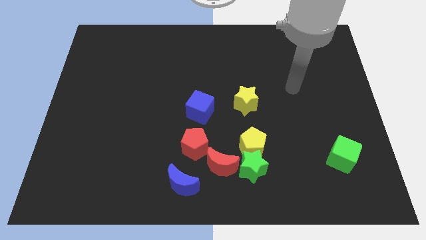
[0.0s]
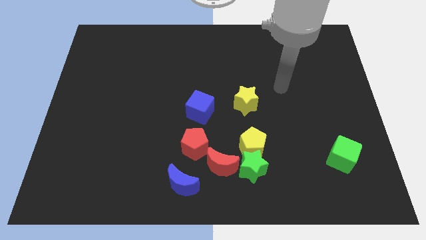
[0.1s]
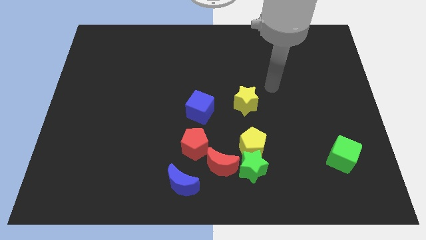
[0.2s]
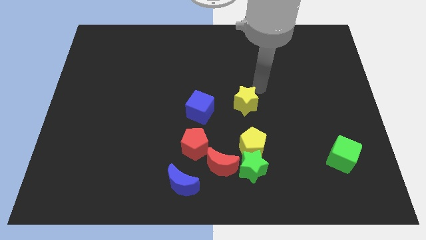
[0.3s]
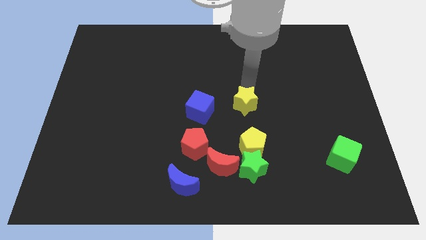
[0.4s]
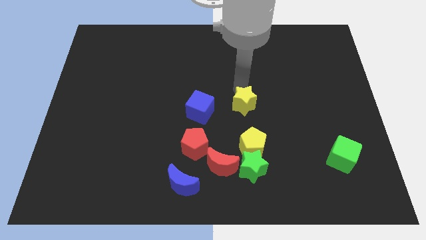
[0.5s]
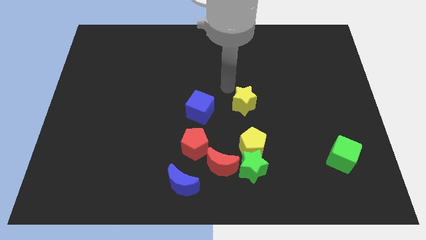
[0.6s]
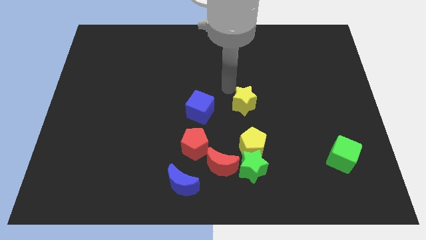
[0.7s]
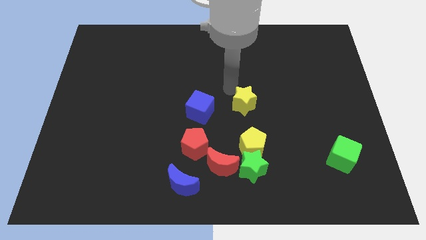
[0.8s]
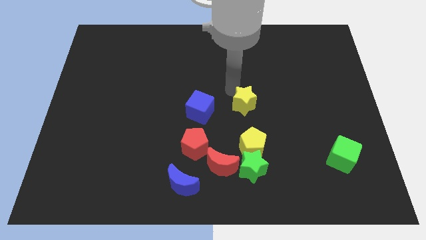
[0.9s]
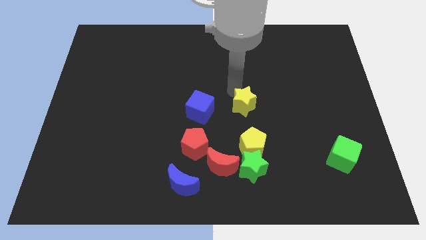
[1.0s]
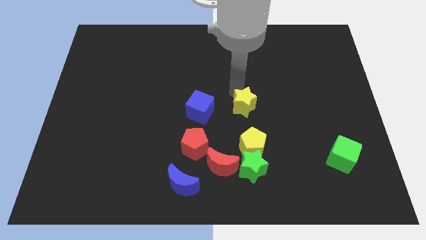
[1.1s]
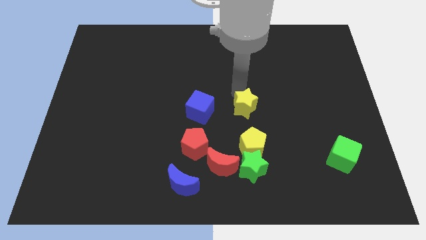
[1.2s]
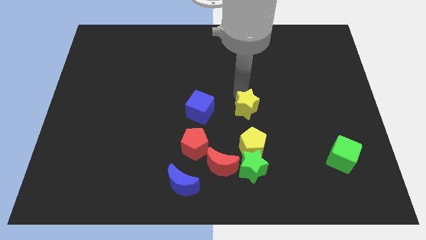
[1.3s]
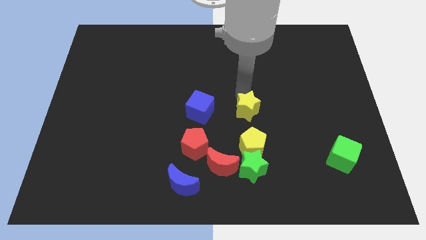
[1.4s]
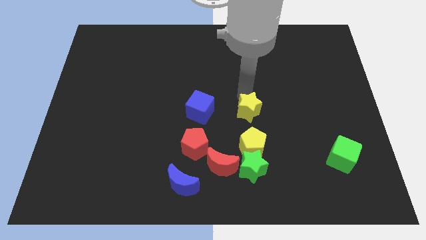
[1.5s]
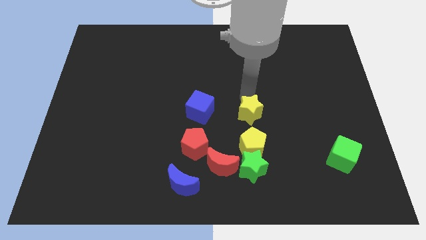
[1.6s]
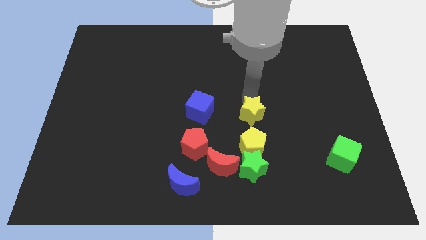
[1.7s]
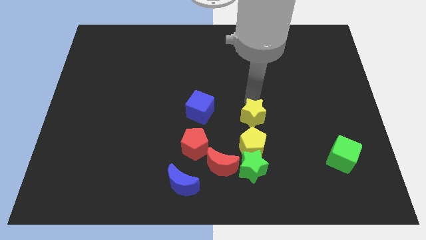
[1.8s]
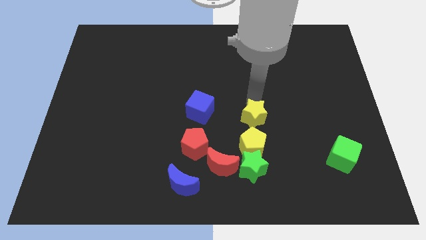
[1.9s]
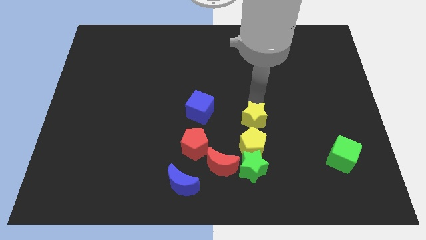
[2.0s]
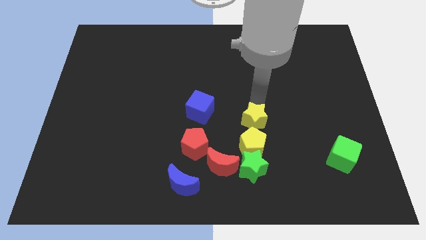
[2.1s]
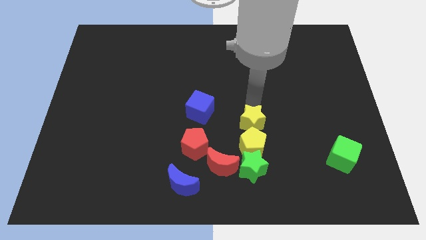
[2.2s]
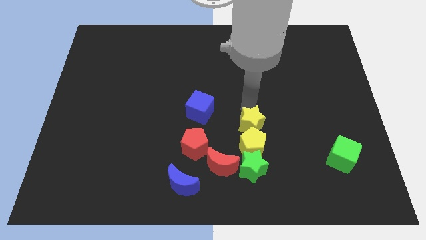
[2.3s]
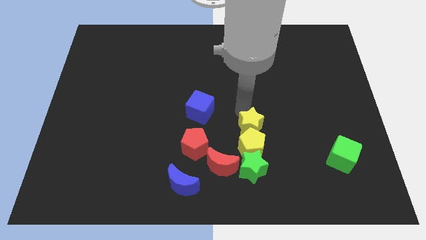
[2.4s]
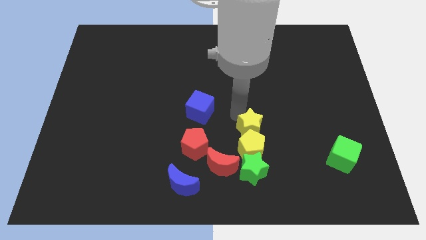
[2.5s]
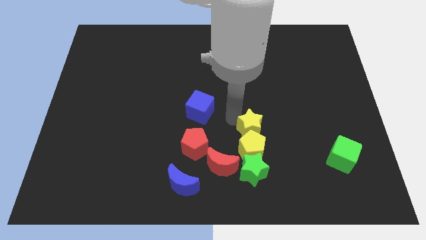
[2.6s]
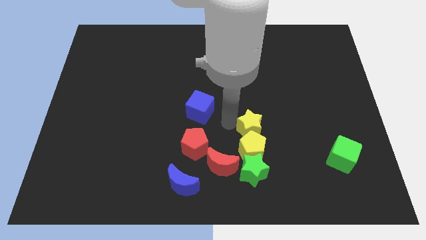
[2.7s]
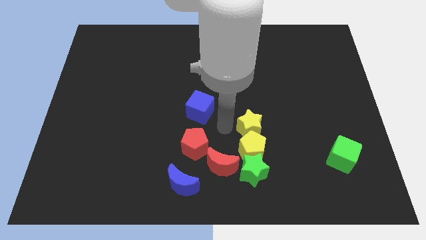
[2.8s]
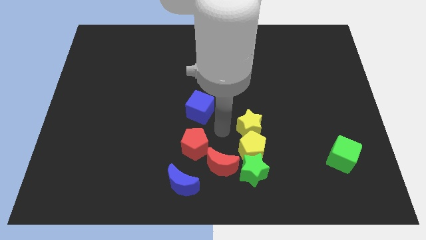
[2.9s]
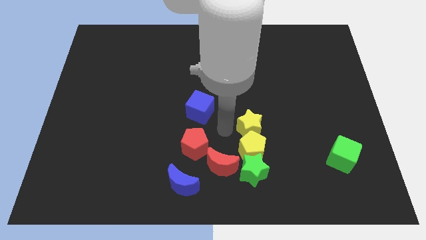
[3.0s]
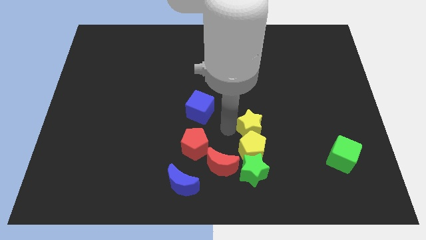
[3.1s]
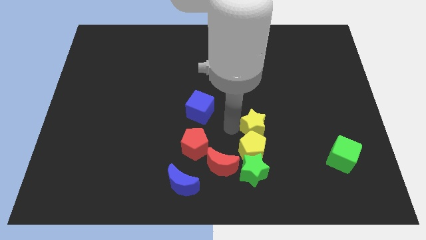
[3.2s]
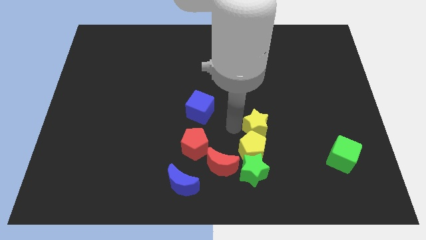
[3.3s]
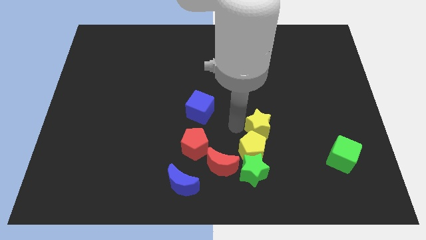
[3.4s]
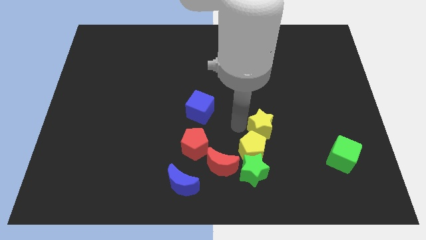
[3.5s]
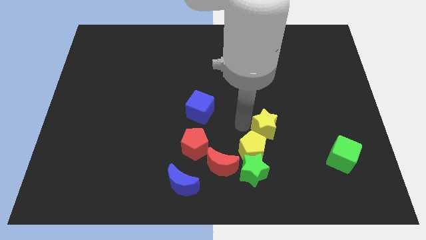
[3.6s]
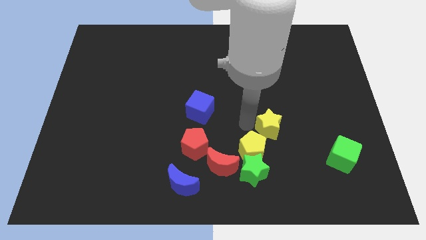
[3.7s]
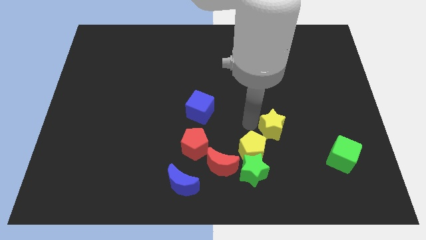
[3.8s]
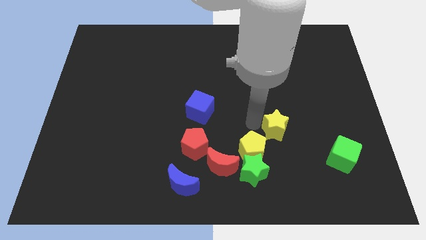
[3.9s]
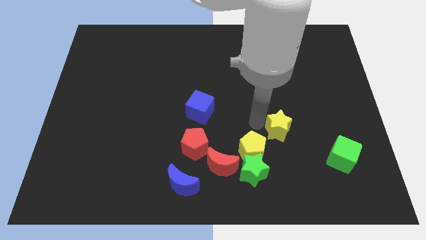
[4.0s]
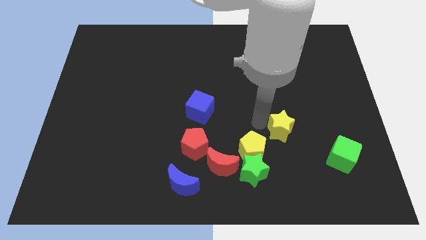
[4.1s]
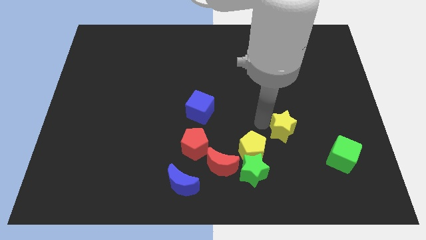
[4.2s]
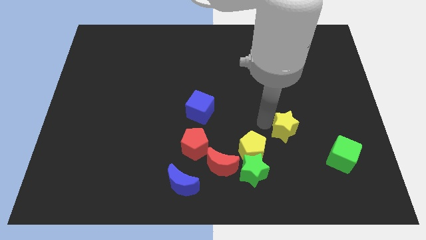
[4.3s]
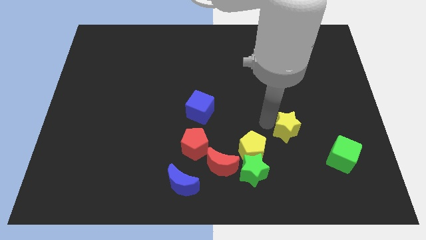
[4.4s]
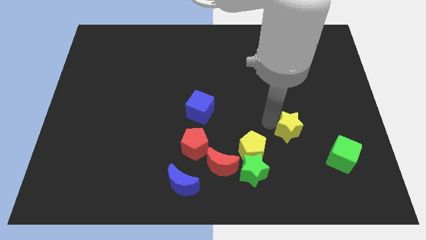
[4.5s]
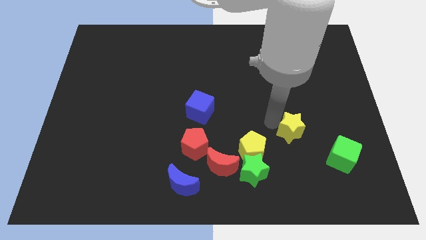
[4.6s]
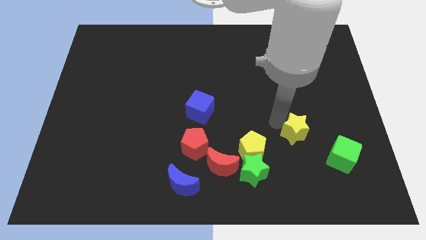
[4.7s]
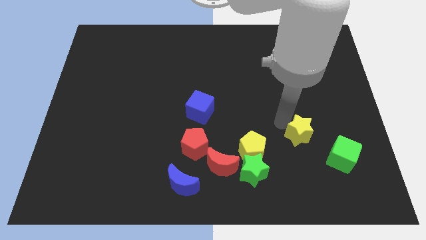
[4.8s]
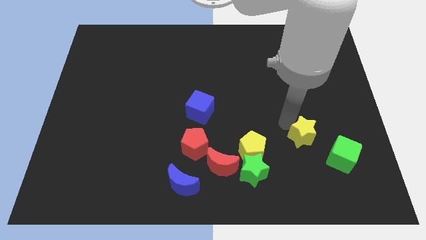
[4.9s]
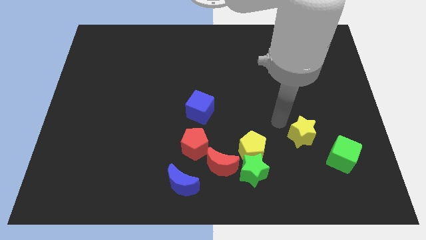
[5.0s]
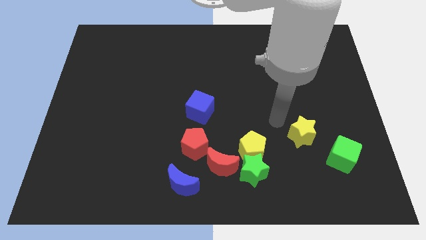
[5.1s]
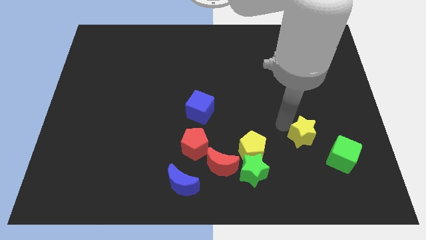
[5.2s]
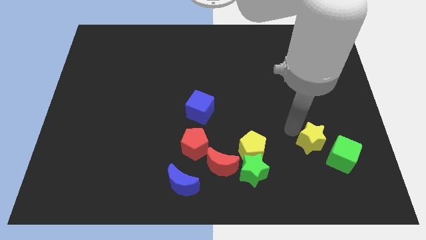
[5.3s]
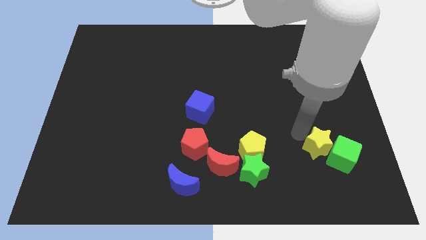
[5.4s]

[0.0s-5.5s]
move the yellow star towards the green cube

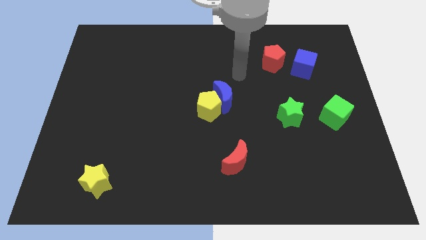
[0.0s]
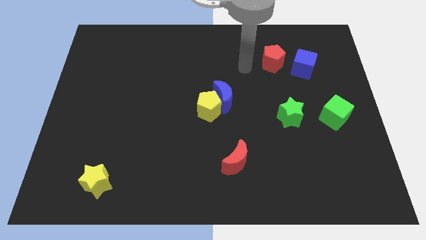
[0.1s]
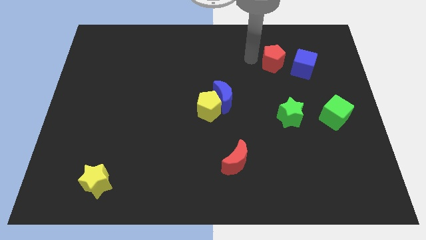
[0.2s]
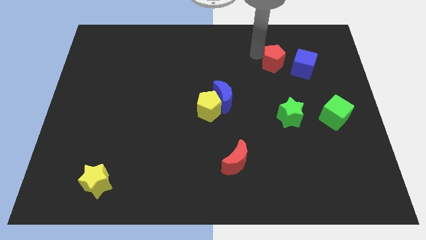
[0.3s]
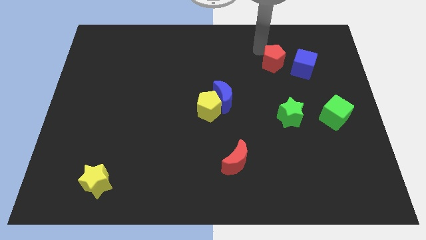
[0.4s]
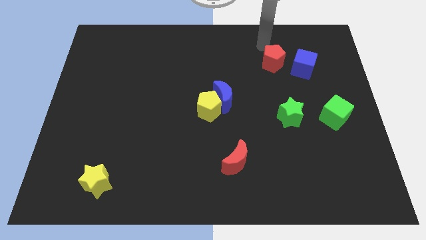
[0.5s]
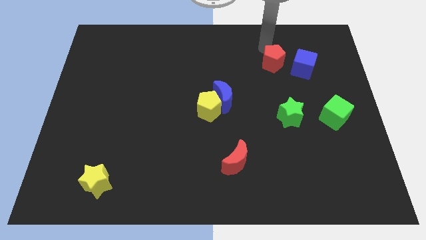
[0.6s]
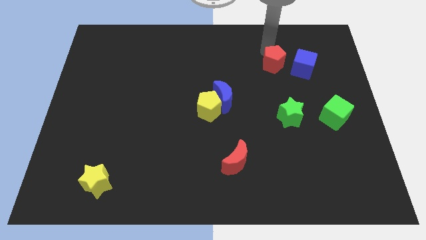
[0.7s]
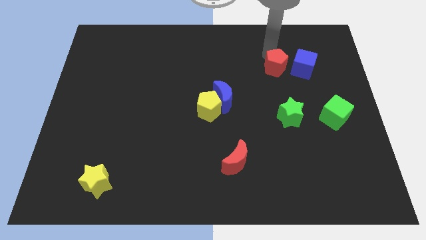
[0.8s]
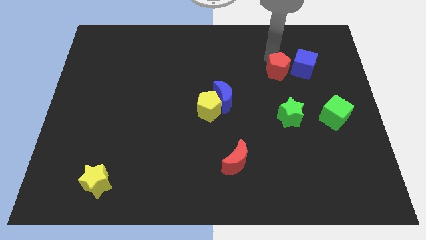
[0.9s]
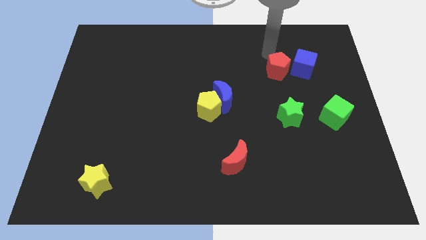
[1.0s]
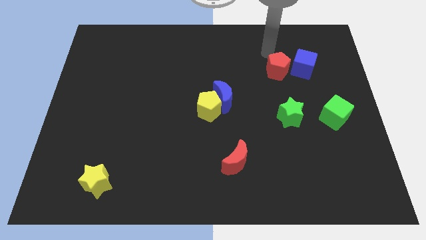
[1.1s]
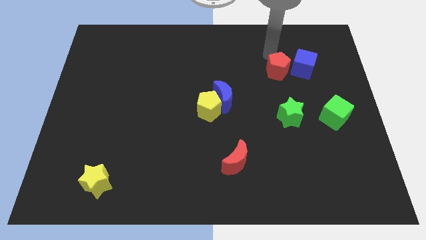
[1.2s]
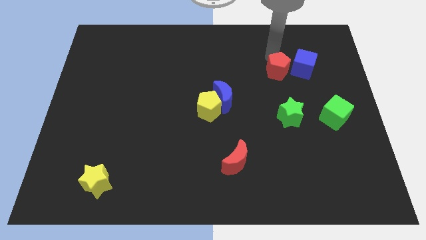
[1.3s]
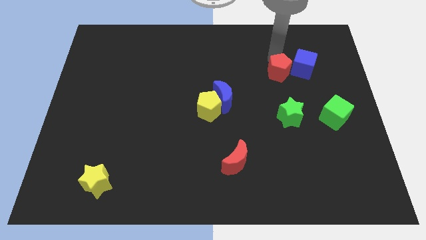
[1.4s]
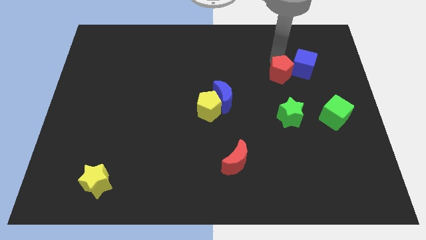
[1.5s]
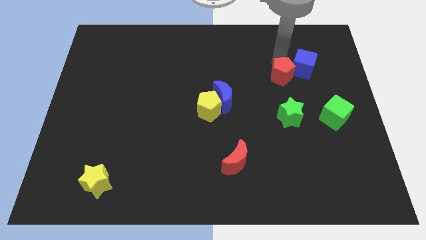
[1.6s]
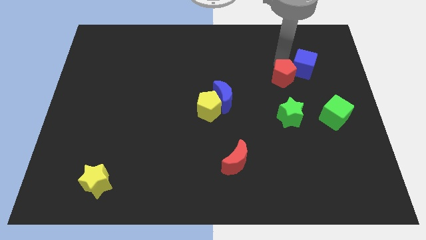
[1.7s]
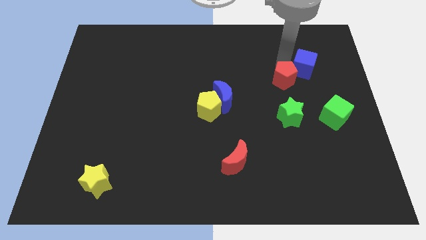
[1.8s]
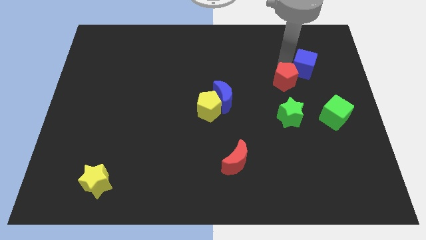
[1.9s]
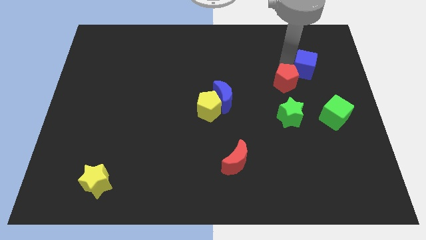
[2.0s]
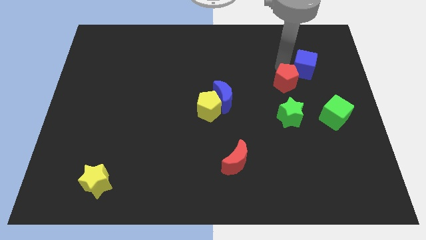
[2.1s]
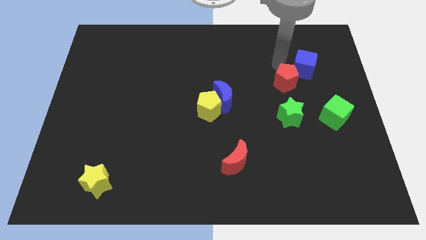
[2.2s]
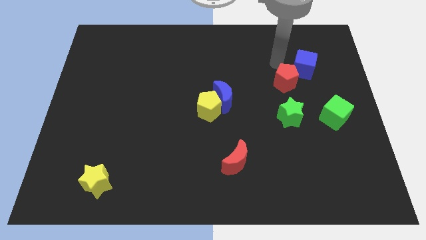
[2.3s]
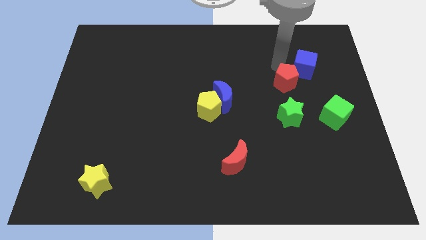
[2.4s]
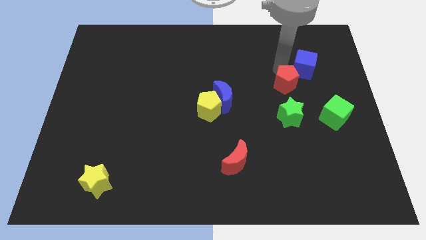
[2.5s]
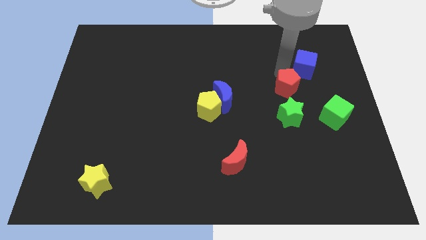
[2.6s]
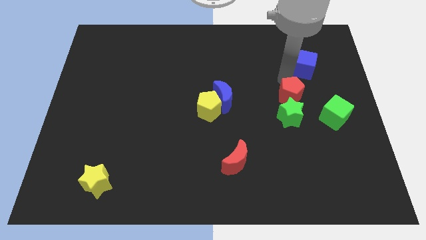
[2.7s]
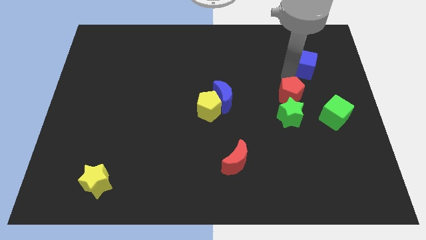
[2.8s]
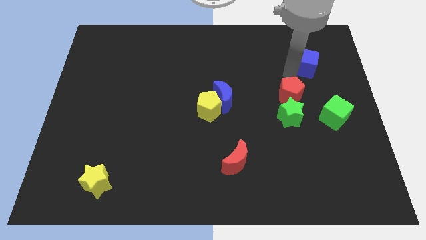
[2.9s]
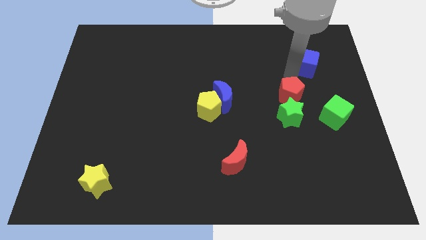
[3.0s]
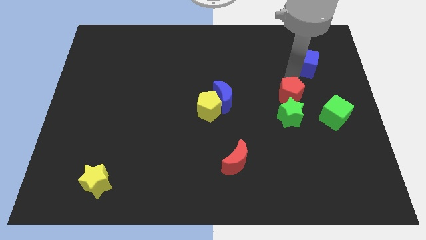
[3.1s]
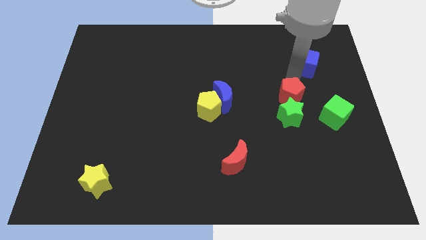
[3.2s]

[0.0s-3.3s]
move the red pentagon close to the green star
